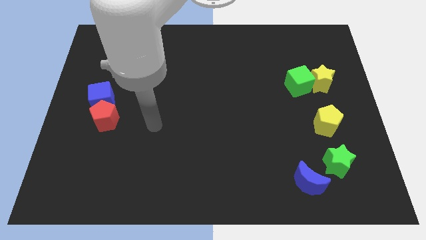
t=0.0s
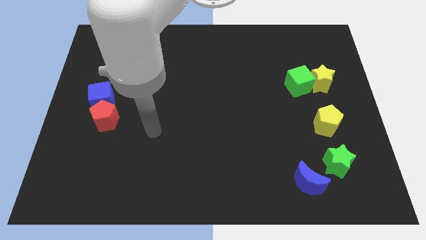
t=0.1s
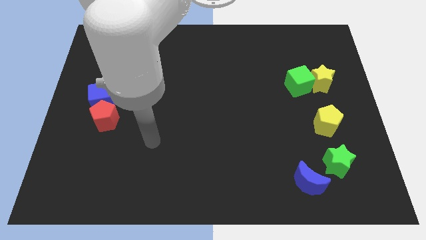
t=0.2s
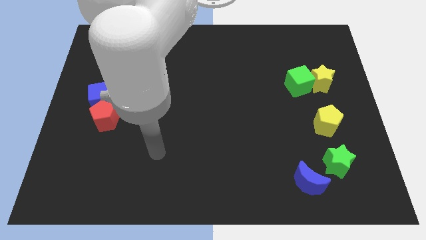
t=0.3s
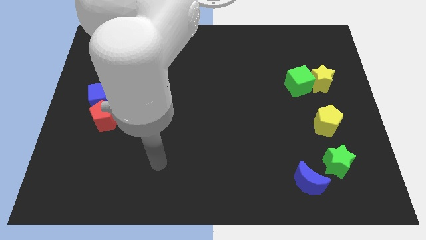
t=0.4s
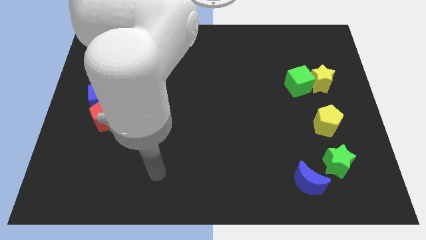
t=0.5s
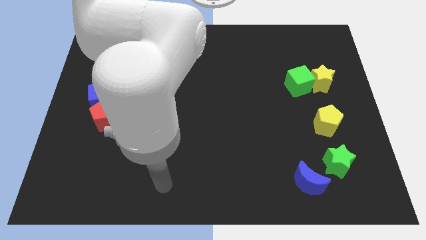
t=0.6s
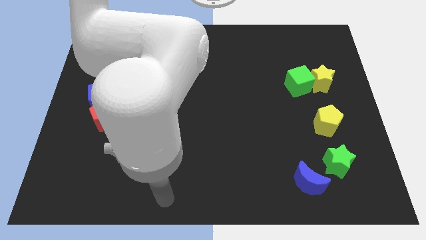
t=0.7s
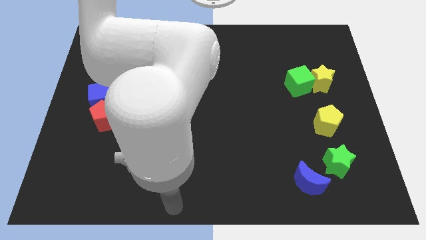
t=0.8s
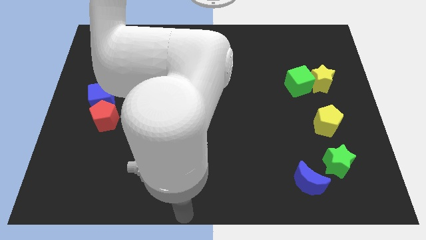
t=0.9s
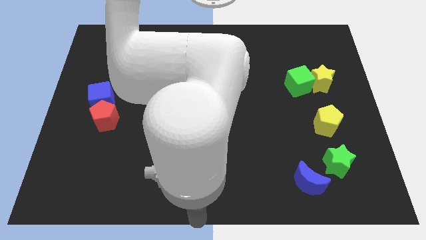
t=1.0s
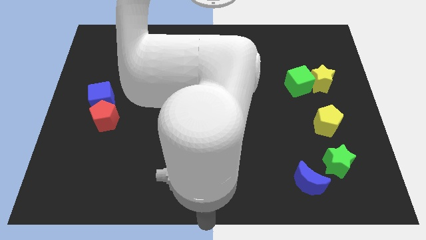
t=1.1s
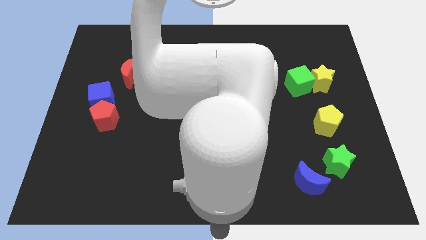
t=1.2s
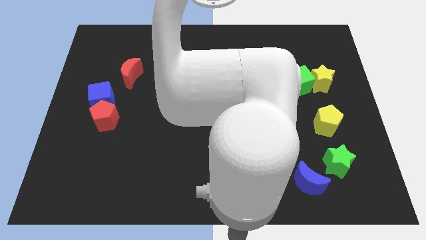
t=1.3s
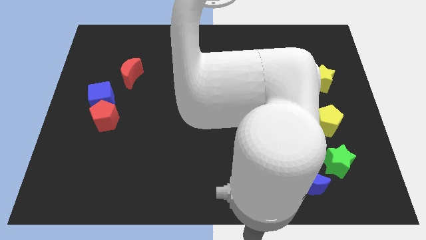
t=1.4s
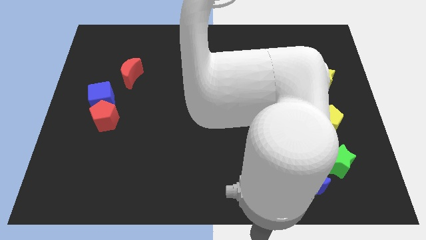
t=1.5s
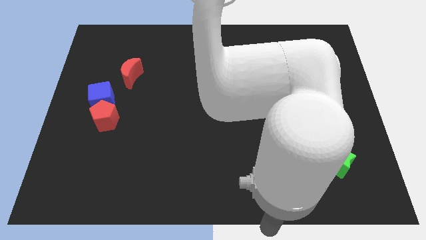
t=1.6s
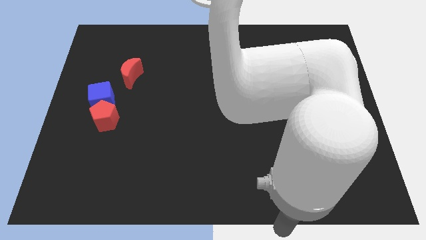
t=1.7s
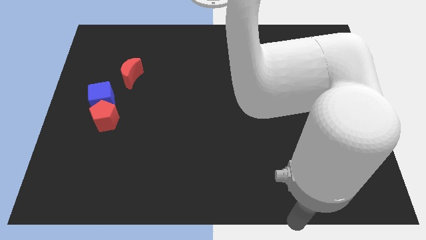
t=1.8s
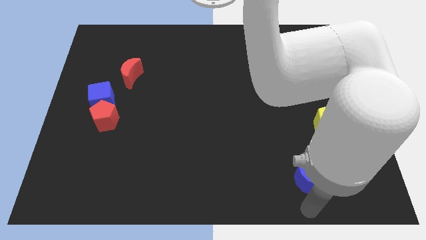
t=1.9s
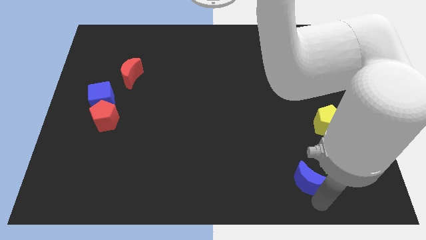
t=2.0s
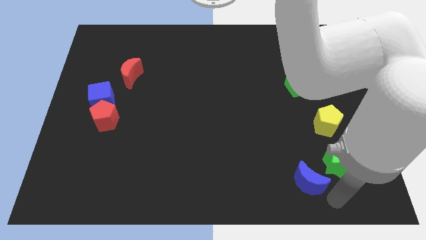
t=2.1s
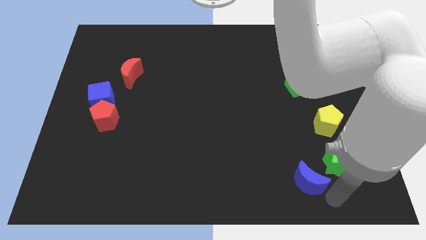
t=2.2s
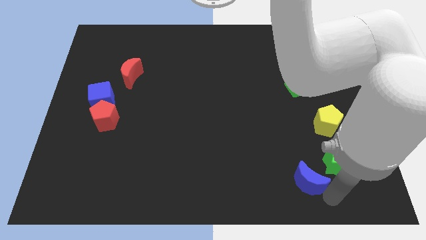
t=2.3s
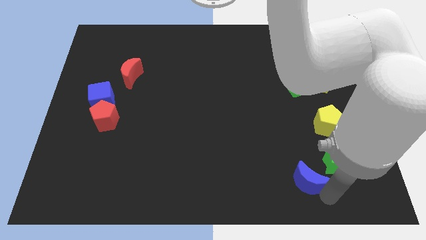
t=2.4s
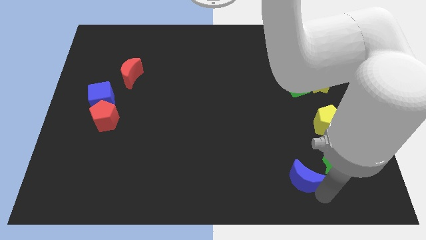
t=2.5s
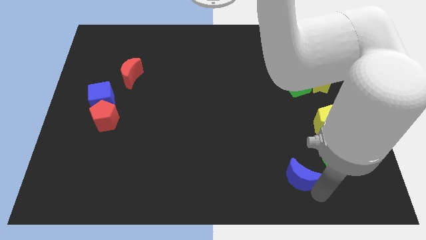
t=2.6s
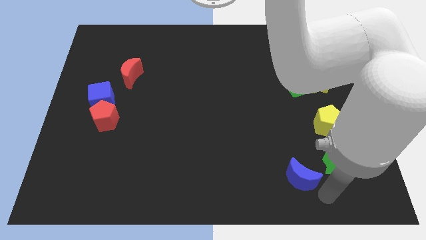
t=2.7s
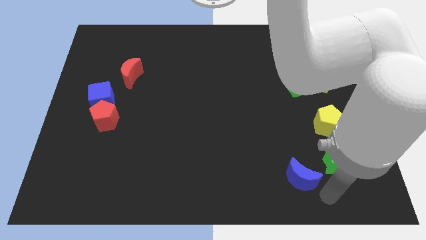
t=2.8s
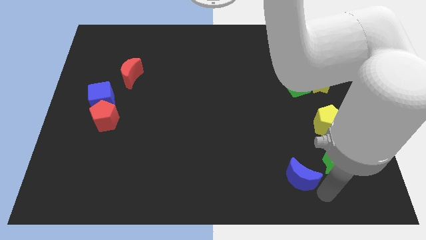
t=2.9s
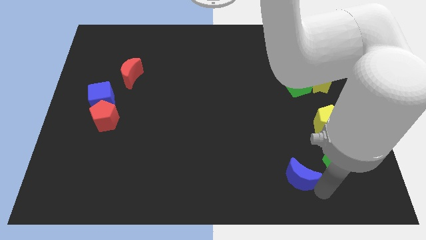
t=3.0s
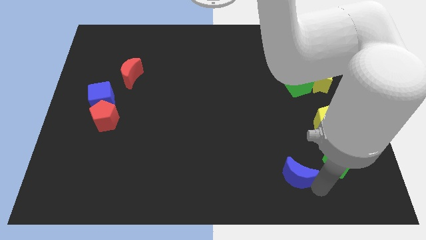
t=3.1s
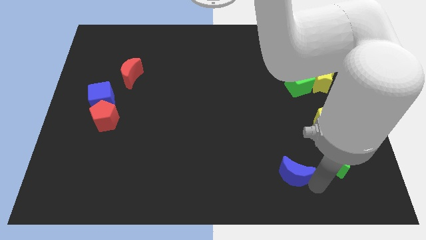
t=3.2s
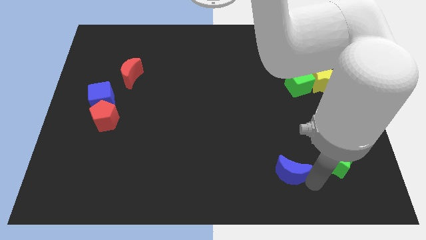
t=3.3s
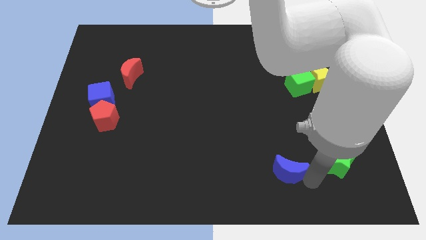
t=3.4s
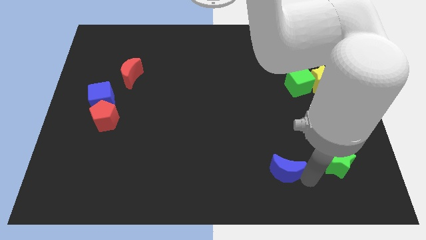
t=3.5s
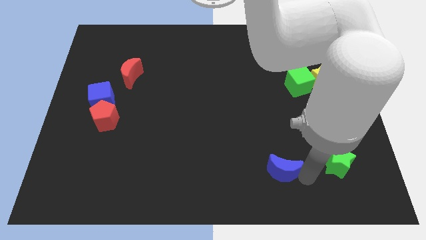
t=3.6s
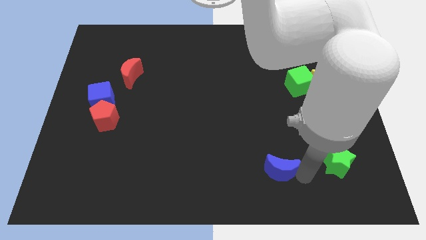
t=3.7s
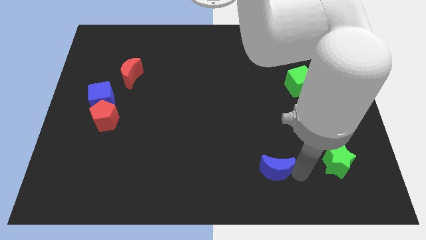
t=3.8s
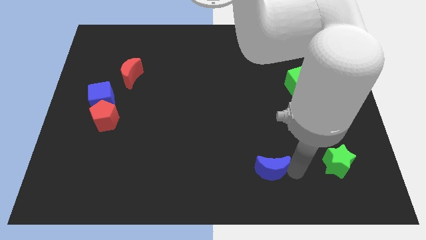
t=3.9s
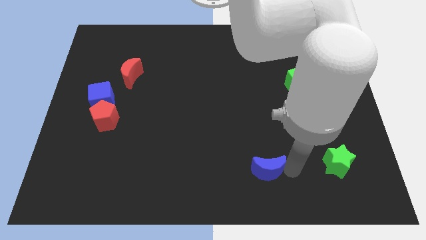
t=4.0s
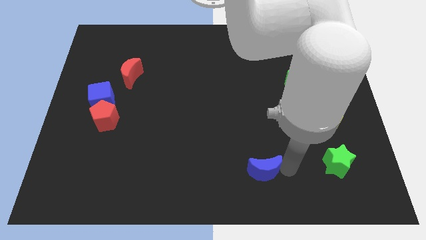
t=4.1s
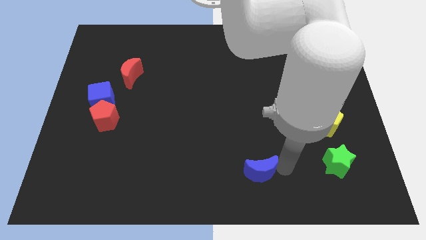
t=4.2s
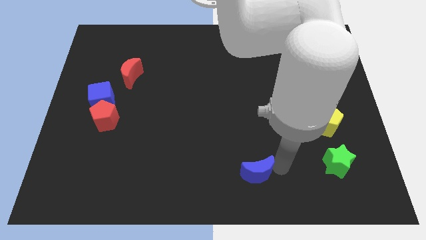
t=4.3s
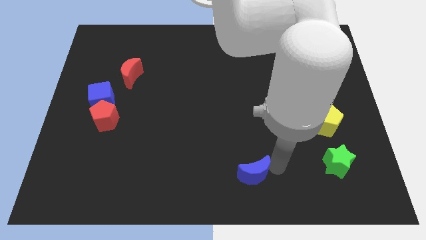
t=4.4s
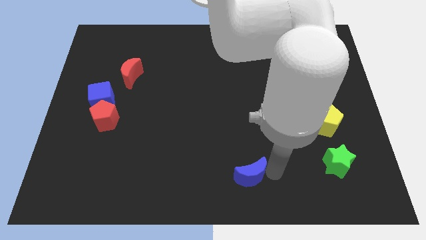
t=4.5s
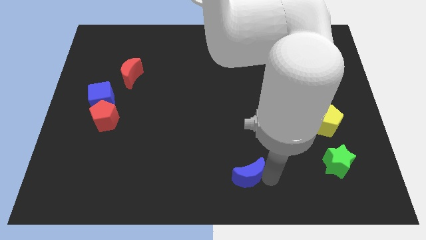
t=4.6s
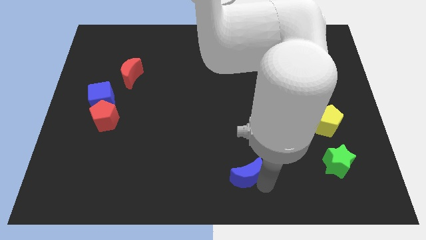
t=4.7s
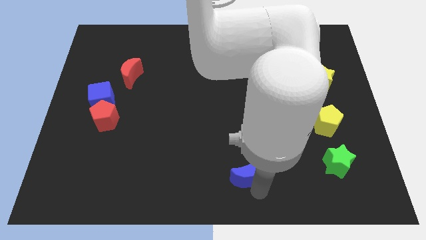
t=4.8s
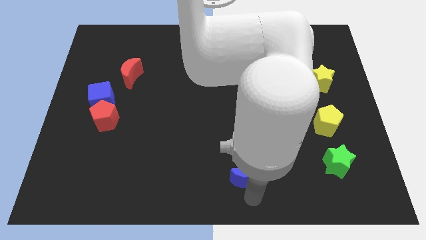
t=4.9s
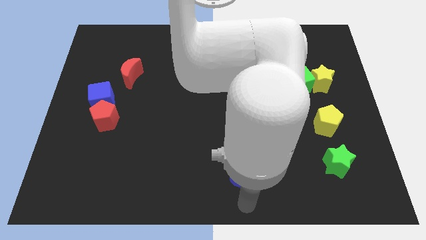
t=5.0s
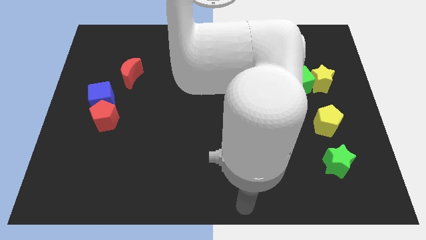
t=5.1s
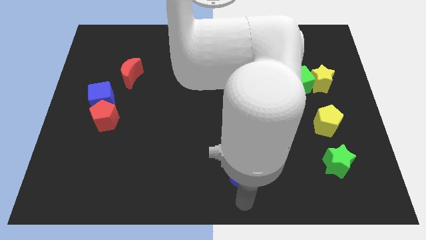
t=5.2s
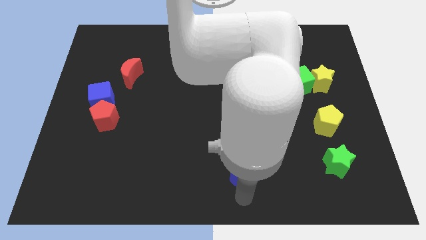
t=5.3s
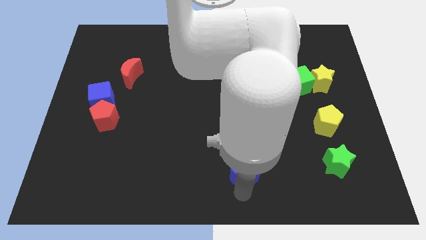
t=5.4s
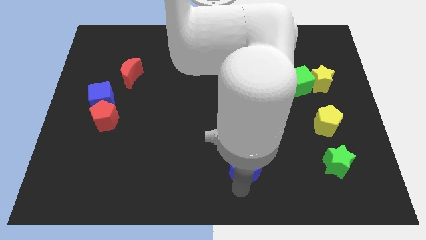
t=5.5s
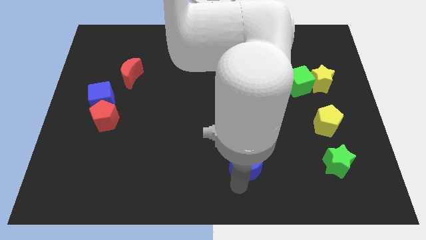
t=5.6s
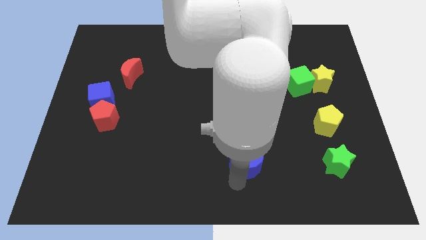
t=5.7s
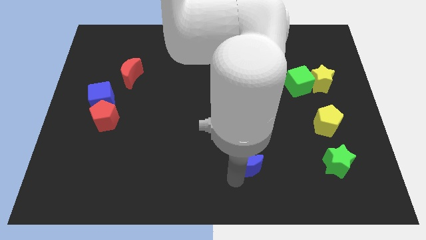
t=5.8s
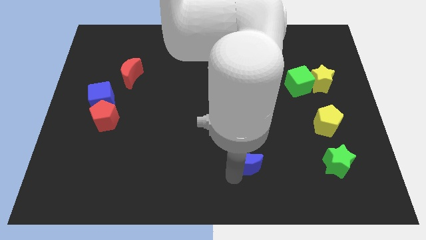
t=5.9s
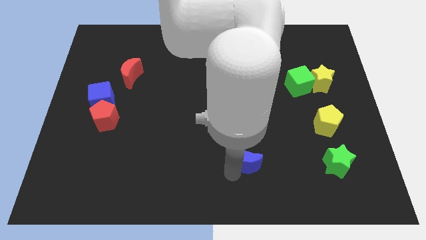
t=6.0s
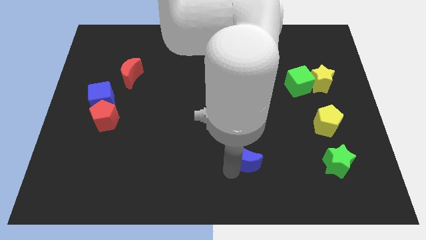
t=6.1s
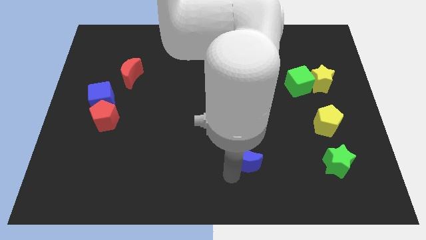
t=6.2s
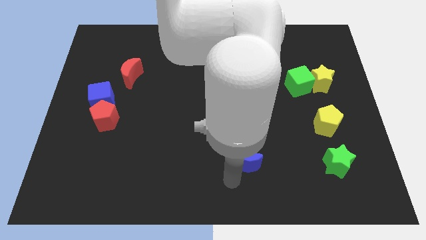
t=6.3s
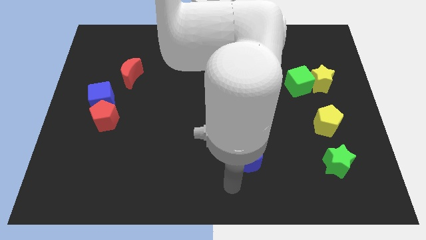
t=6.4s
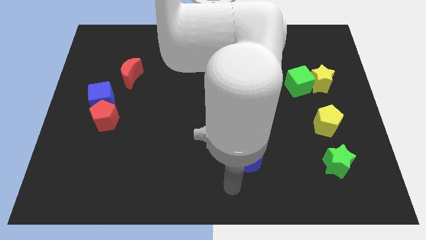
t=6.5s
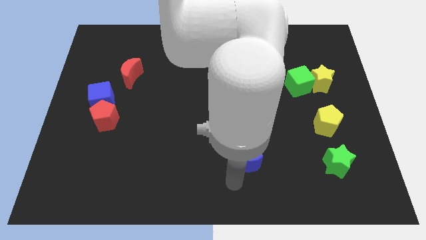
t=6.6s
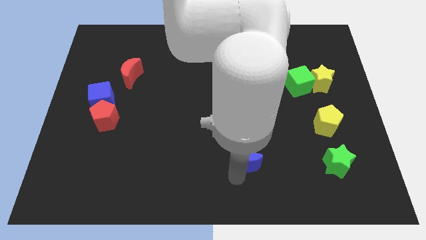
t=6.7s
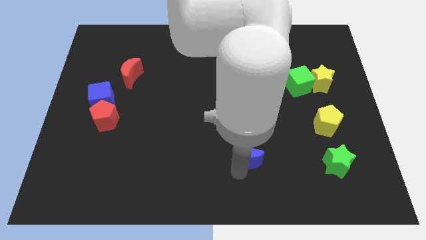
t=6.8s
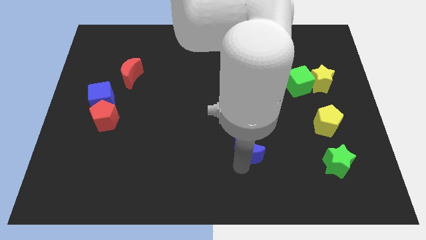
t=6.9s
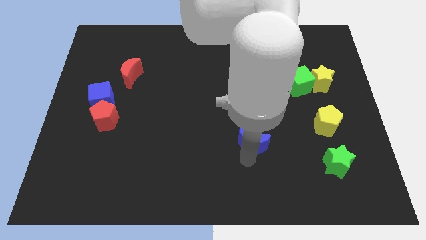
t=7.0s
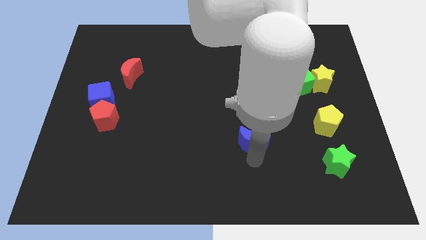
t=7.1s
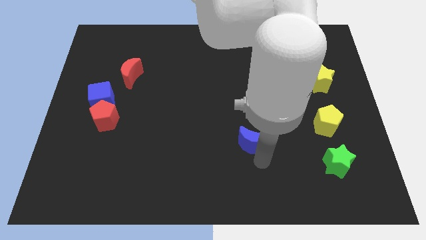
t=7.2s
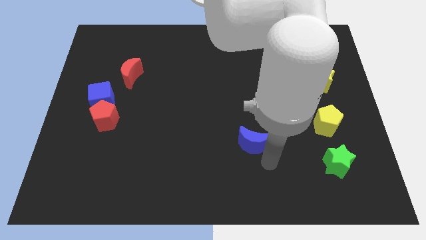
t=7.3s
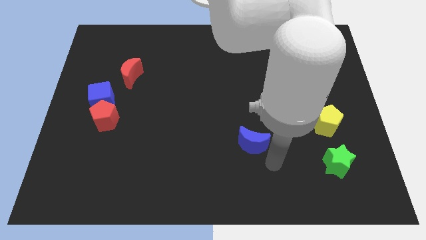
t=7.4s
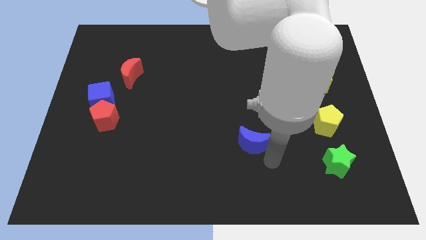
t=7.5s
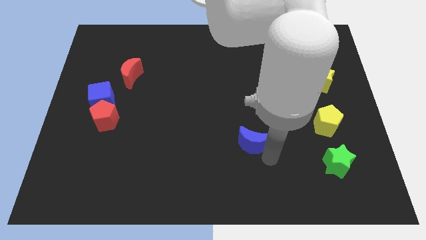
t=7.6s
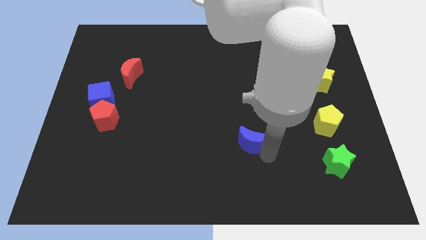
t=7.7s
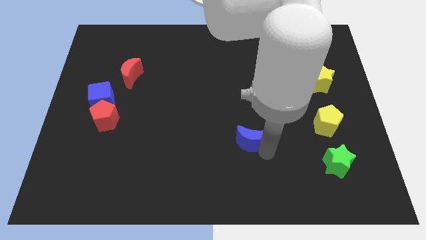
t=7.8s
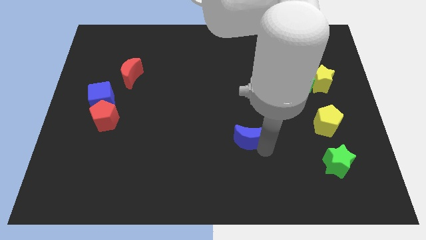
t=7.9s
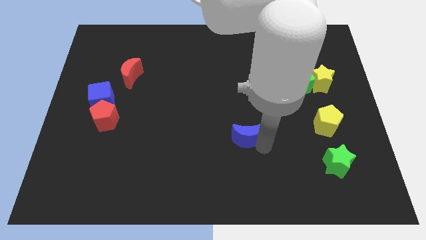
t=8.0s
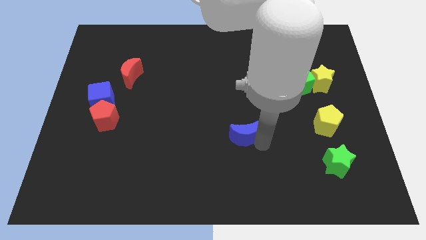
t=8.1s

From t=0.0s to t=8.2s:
push the blue moon to the center of the board
